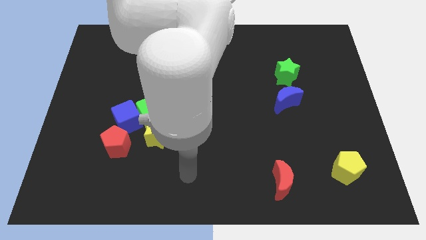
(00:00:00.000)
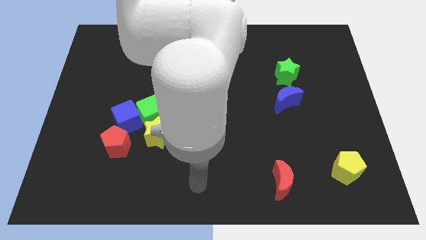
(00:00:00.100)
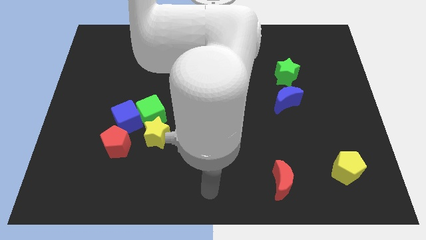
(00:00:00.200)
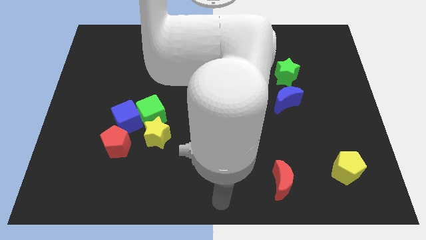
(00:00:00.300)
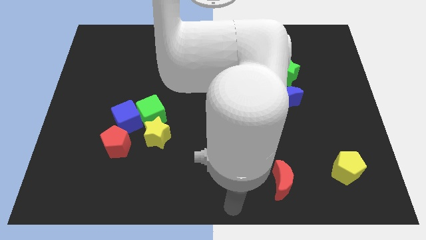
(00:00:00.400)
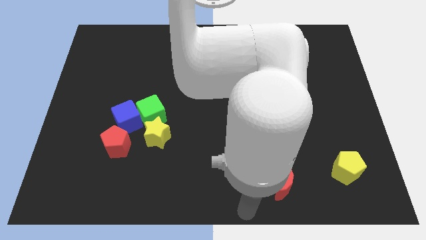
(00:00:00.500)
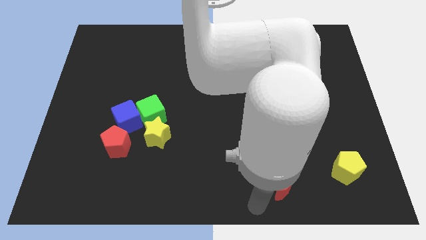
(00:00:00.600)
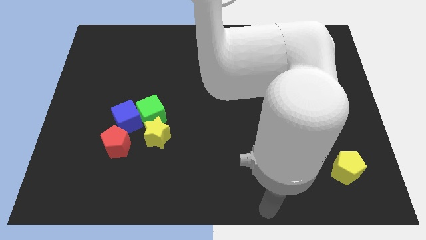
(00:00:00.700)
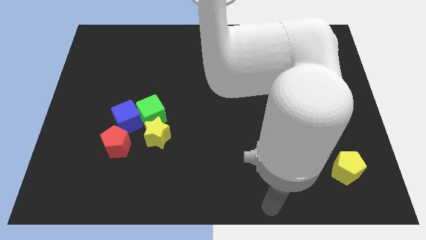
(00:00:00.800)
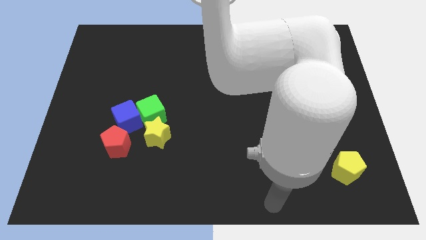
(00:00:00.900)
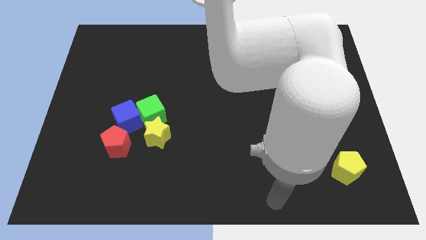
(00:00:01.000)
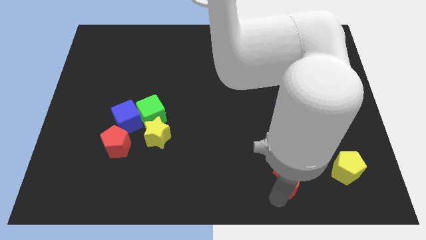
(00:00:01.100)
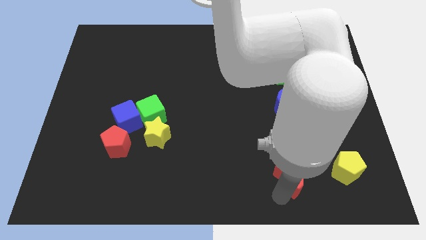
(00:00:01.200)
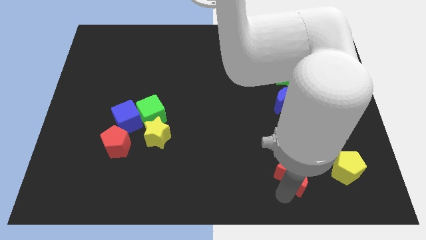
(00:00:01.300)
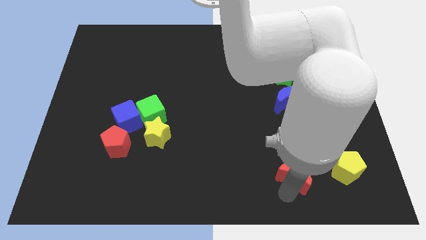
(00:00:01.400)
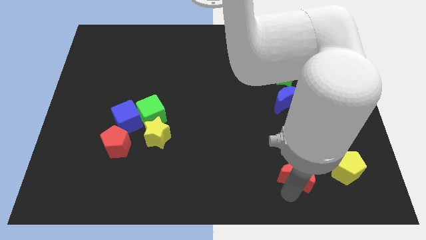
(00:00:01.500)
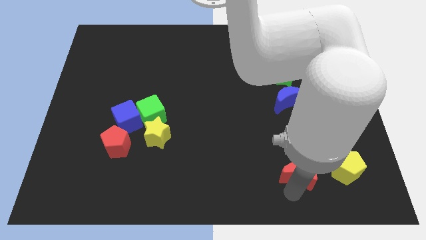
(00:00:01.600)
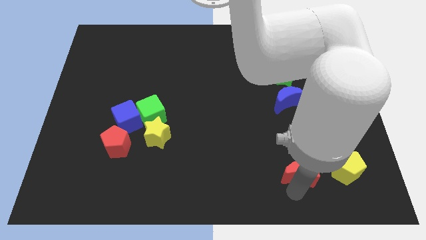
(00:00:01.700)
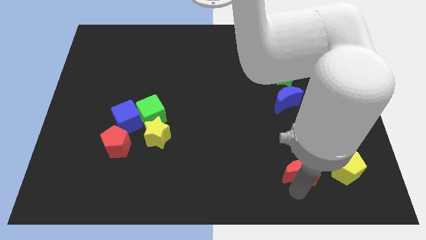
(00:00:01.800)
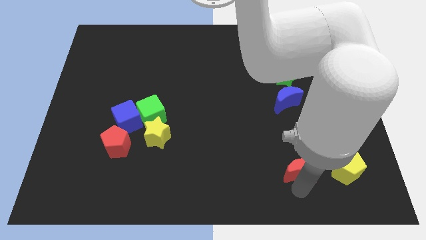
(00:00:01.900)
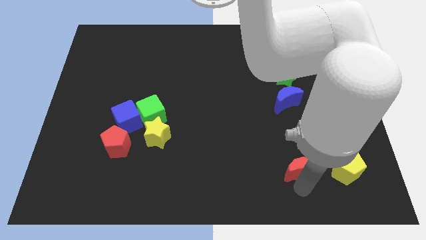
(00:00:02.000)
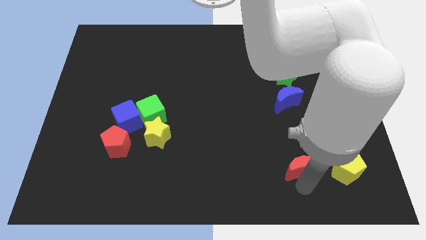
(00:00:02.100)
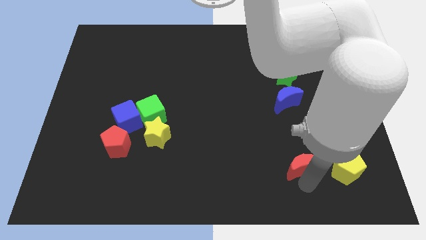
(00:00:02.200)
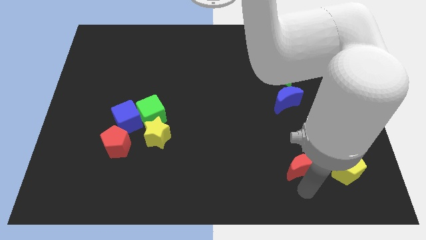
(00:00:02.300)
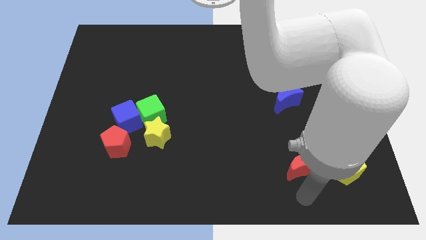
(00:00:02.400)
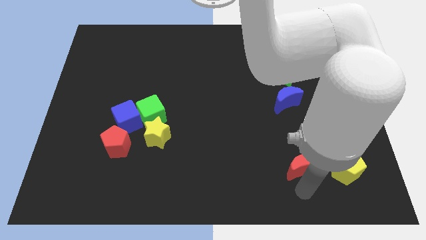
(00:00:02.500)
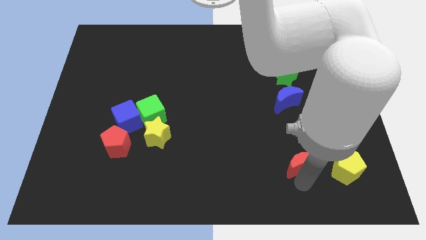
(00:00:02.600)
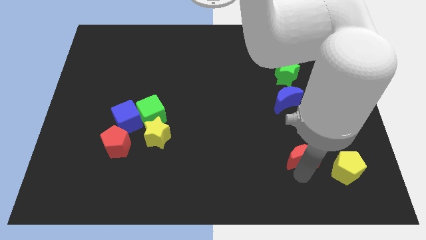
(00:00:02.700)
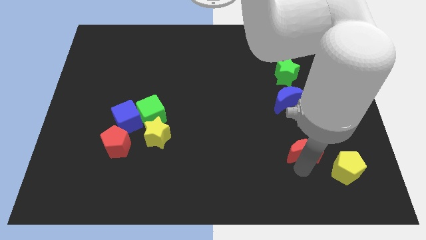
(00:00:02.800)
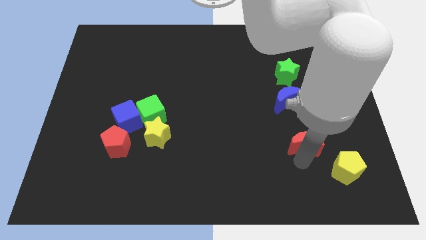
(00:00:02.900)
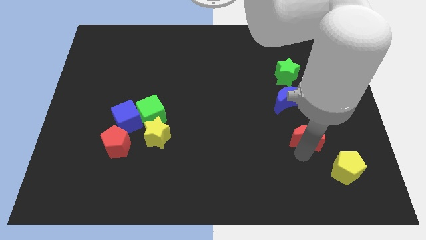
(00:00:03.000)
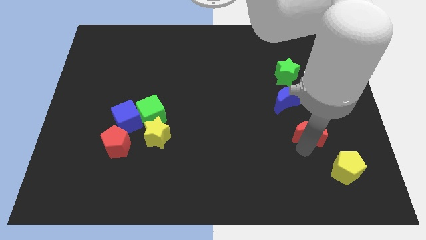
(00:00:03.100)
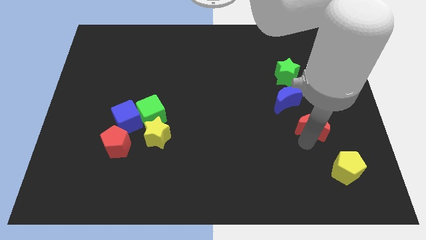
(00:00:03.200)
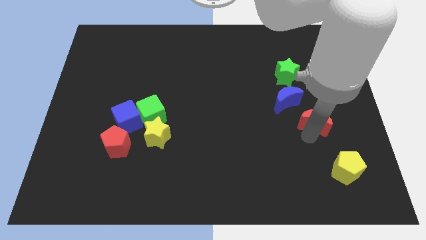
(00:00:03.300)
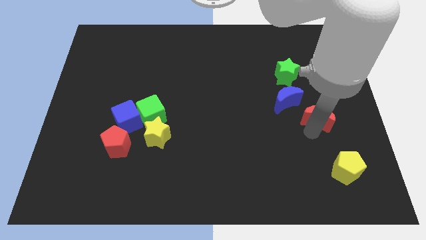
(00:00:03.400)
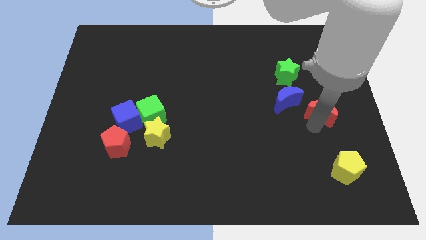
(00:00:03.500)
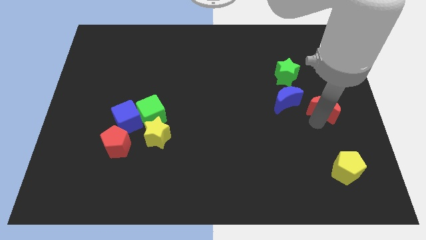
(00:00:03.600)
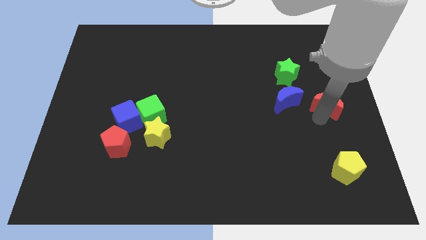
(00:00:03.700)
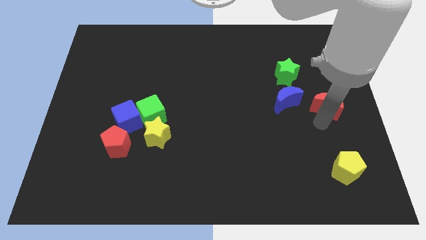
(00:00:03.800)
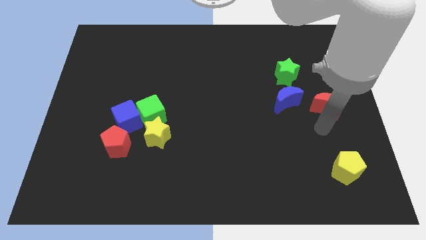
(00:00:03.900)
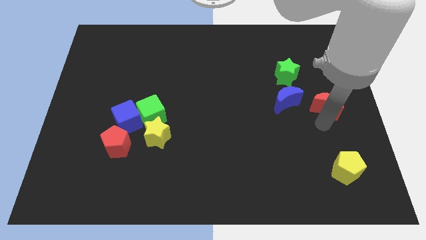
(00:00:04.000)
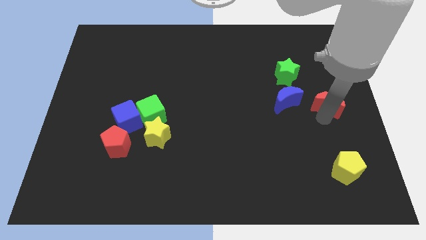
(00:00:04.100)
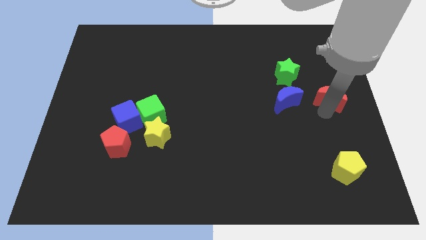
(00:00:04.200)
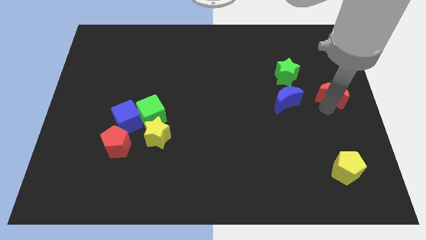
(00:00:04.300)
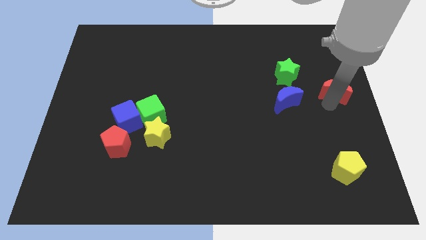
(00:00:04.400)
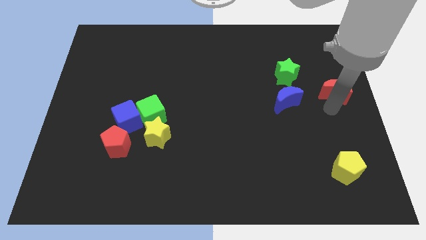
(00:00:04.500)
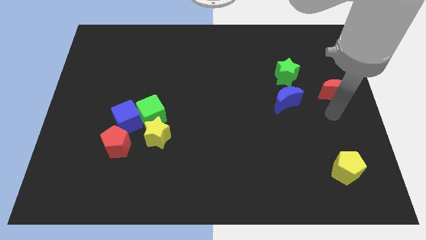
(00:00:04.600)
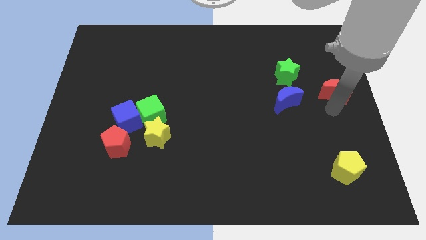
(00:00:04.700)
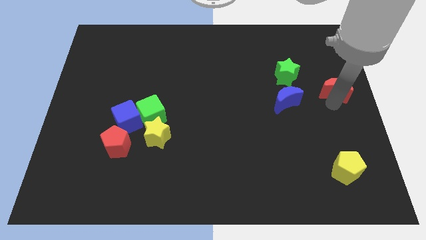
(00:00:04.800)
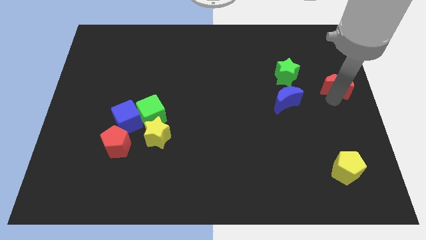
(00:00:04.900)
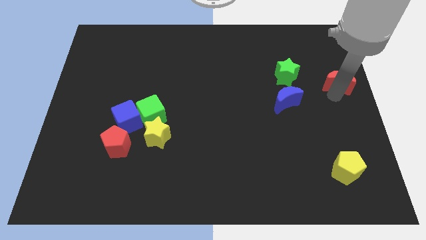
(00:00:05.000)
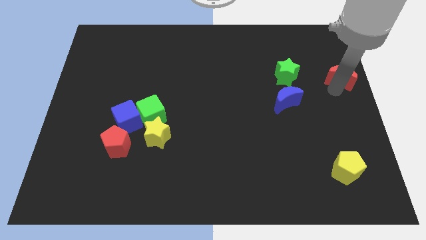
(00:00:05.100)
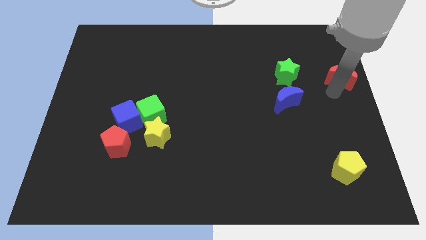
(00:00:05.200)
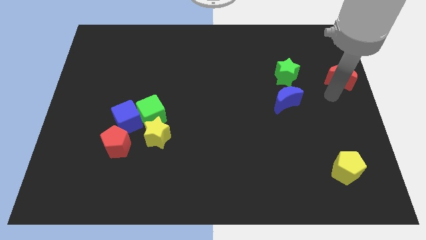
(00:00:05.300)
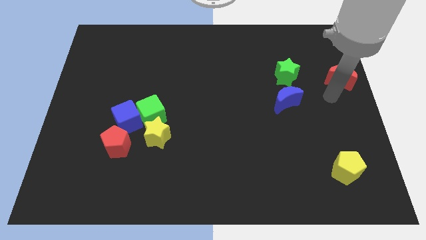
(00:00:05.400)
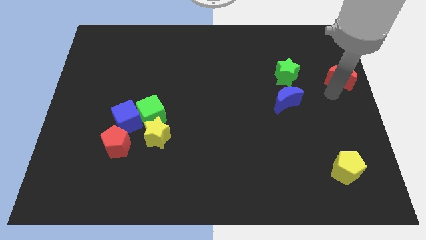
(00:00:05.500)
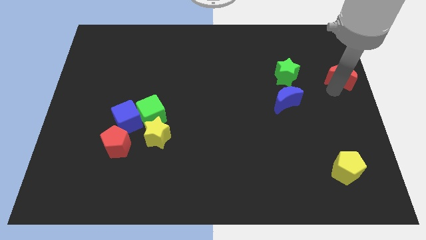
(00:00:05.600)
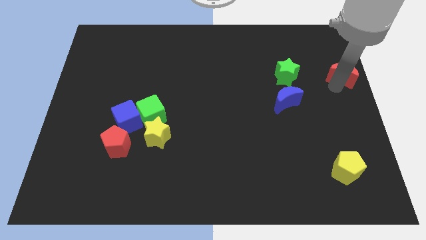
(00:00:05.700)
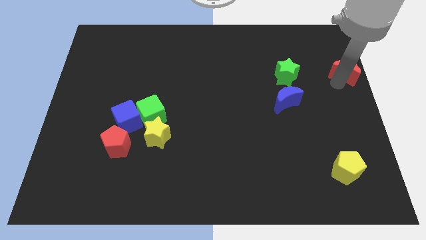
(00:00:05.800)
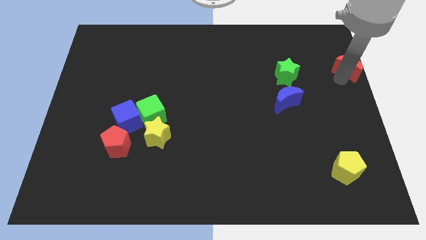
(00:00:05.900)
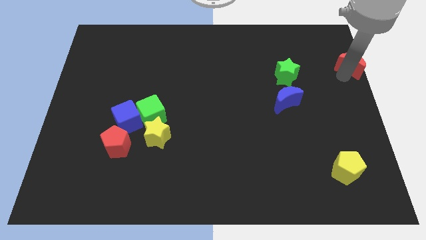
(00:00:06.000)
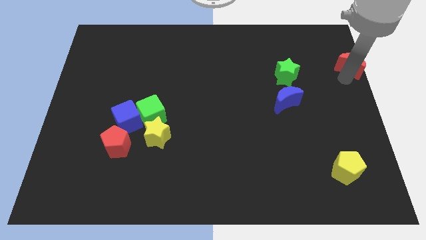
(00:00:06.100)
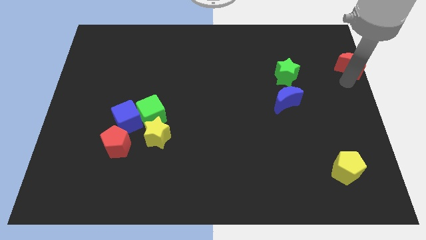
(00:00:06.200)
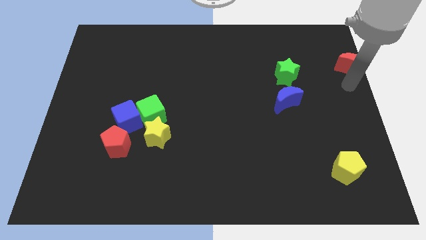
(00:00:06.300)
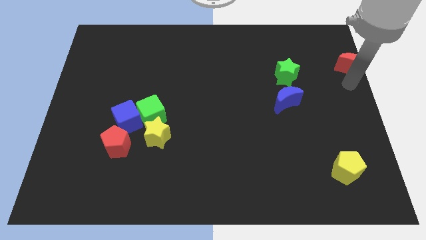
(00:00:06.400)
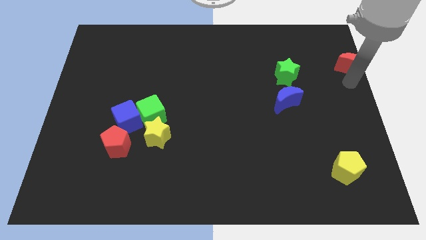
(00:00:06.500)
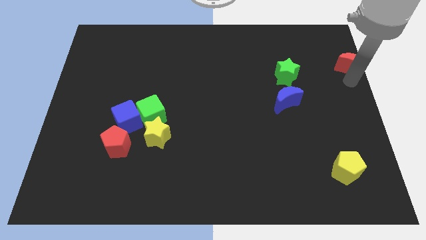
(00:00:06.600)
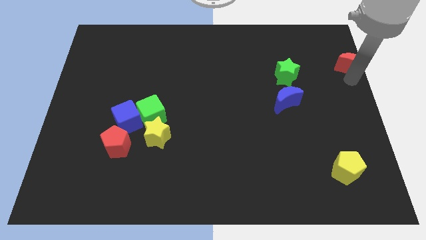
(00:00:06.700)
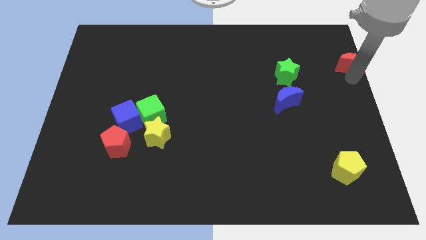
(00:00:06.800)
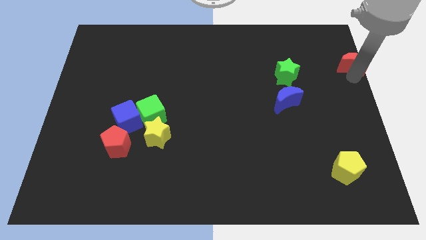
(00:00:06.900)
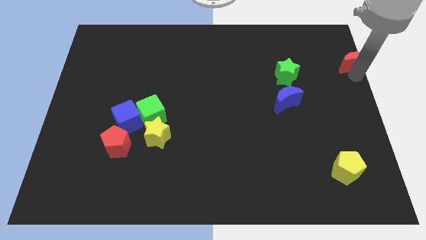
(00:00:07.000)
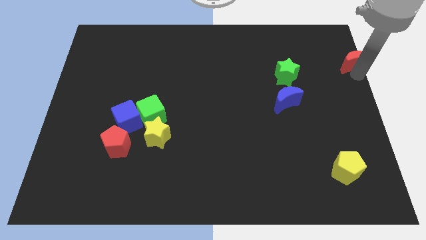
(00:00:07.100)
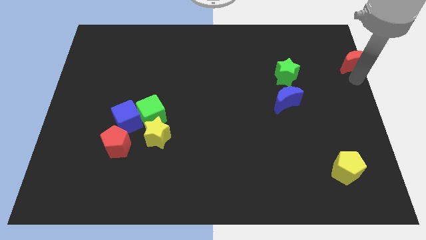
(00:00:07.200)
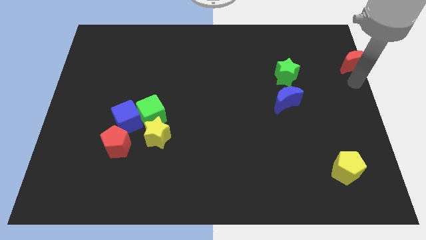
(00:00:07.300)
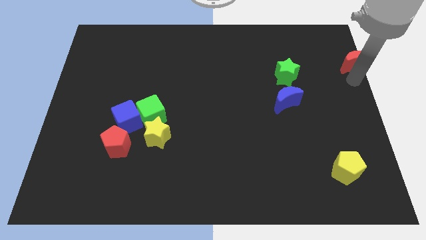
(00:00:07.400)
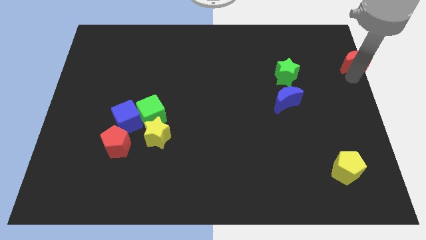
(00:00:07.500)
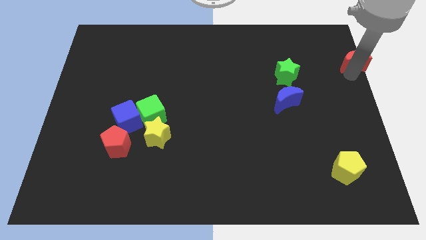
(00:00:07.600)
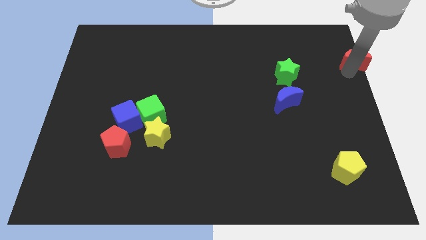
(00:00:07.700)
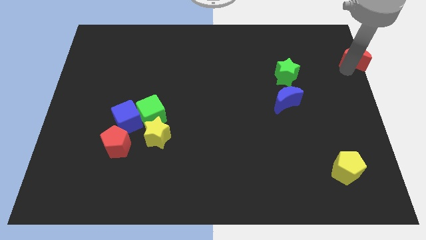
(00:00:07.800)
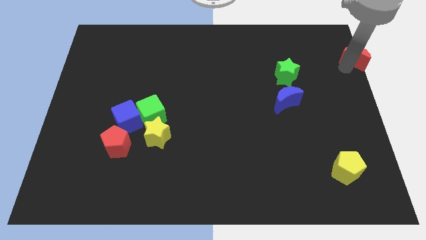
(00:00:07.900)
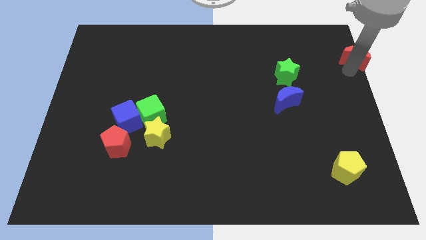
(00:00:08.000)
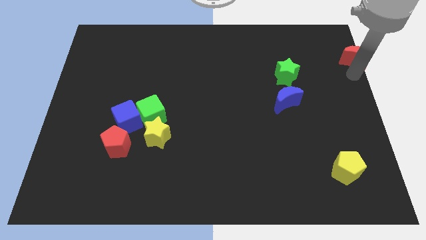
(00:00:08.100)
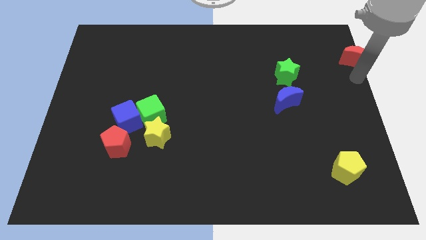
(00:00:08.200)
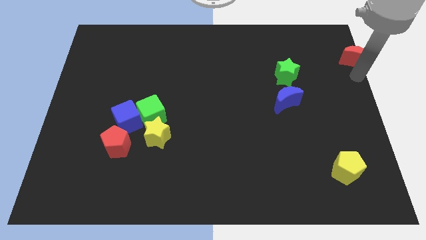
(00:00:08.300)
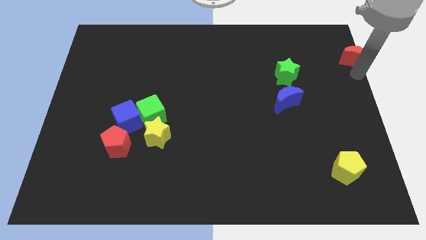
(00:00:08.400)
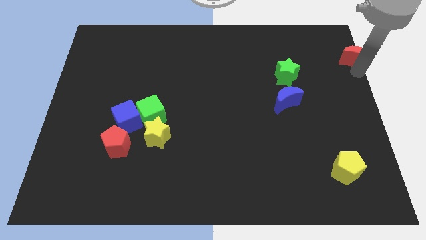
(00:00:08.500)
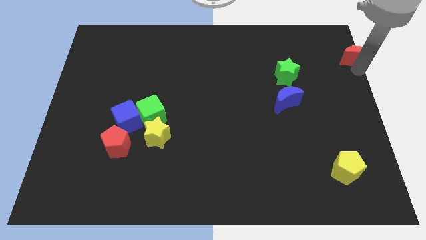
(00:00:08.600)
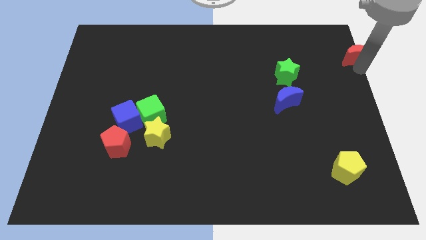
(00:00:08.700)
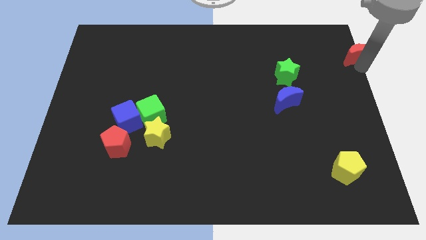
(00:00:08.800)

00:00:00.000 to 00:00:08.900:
put the red moon to the top right of the board
